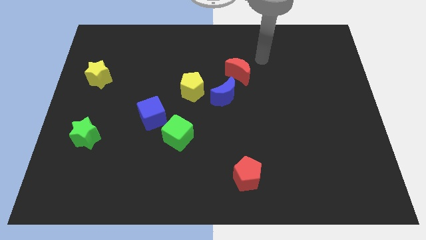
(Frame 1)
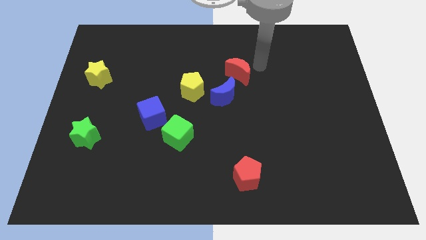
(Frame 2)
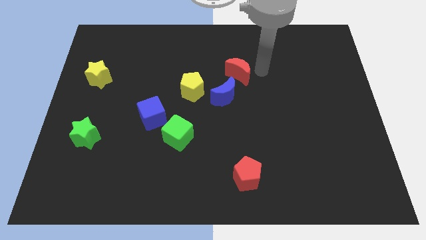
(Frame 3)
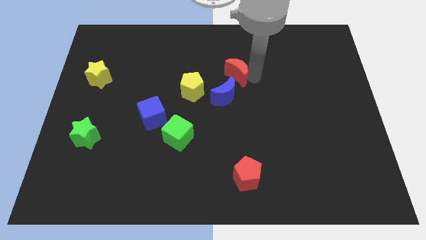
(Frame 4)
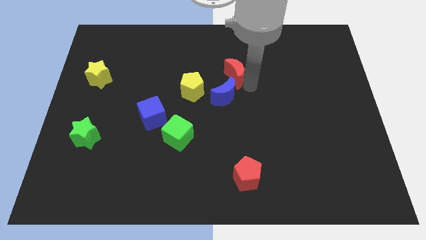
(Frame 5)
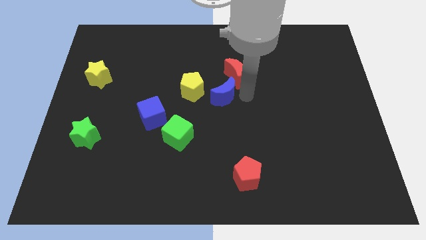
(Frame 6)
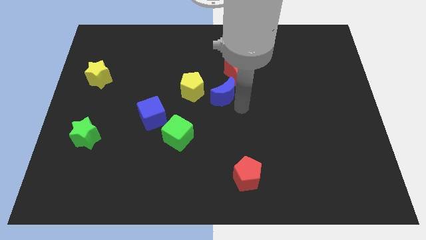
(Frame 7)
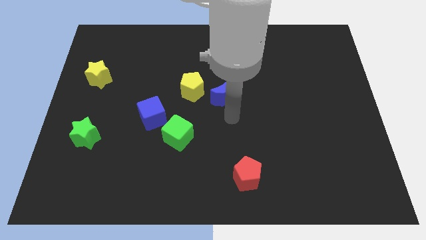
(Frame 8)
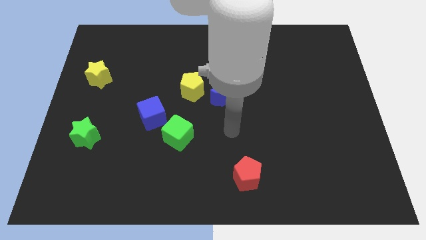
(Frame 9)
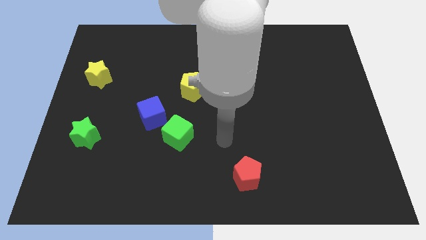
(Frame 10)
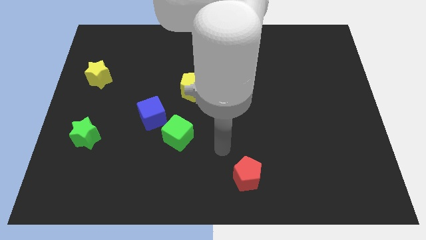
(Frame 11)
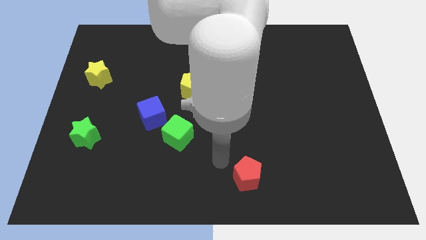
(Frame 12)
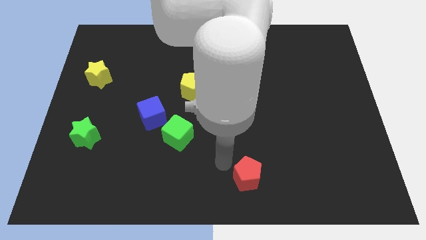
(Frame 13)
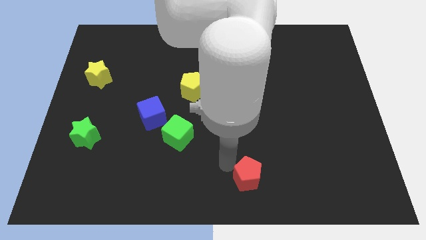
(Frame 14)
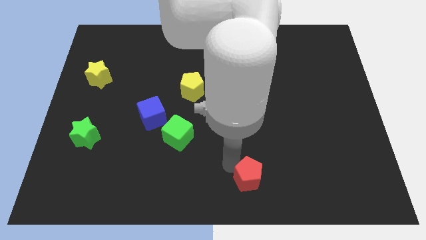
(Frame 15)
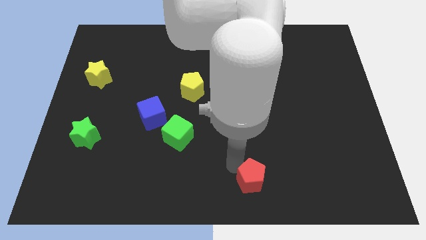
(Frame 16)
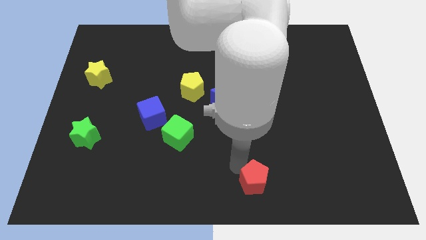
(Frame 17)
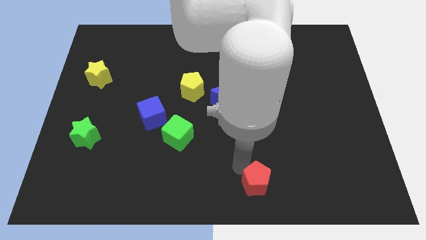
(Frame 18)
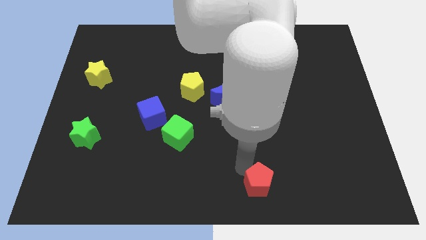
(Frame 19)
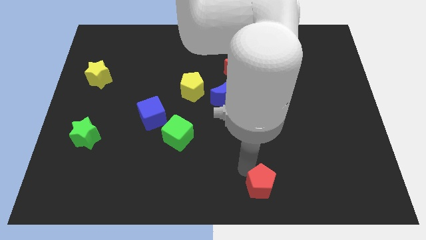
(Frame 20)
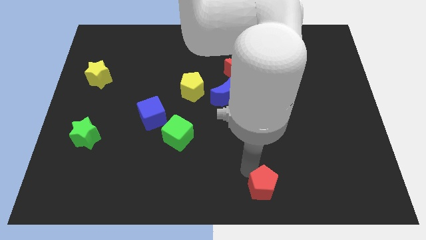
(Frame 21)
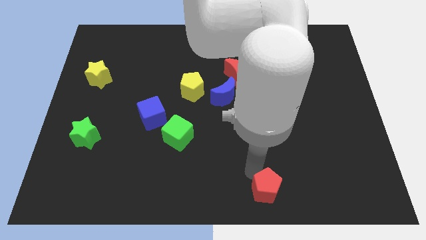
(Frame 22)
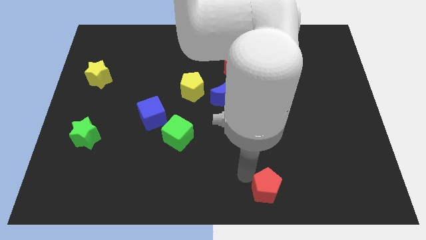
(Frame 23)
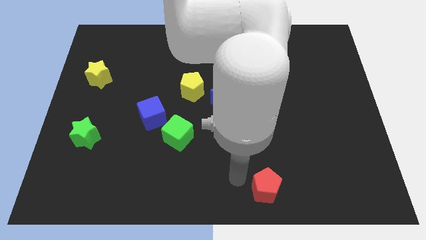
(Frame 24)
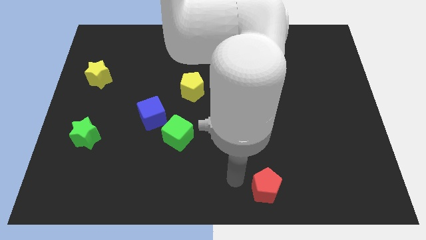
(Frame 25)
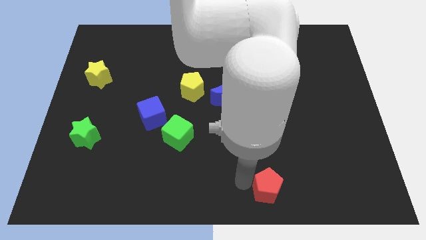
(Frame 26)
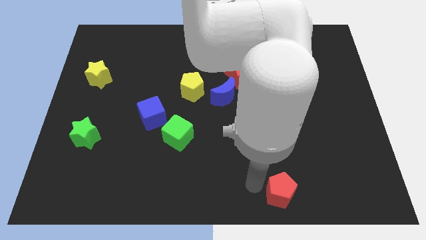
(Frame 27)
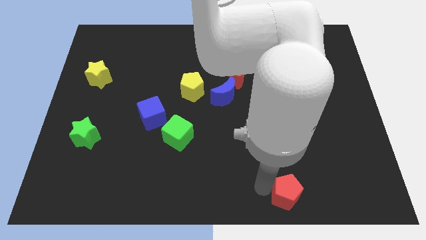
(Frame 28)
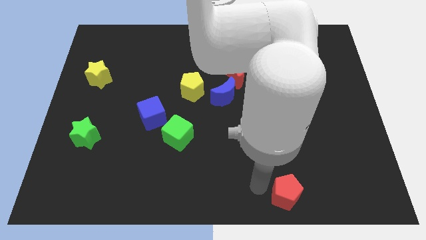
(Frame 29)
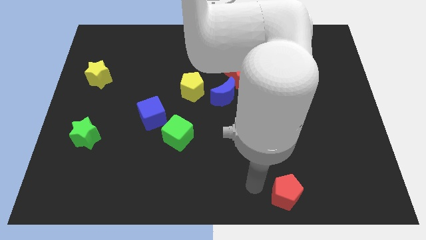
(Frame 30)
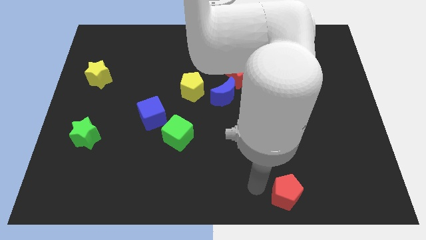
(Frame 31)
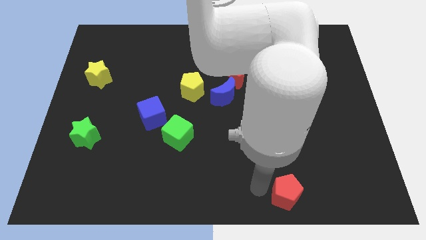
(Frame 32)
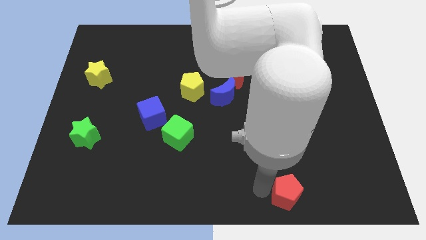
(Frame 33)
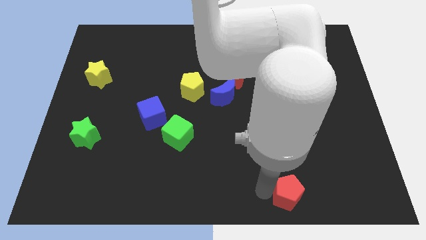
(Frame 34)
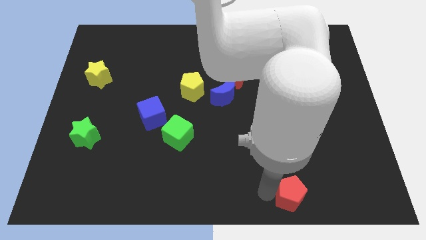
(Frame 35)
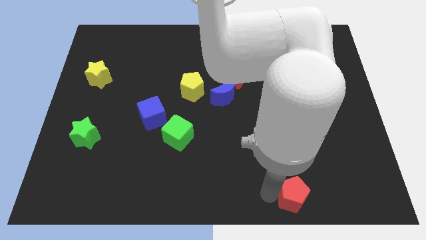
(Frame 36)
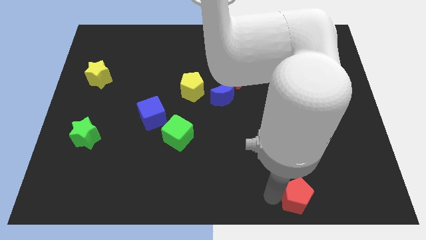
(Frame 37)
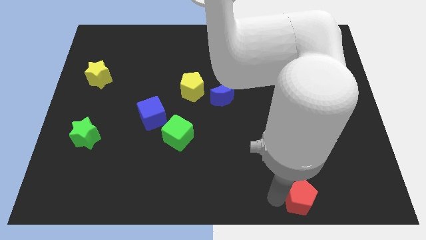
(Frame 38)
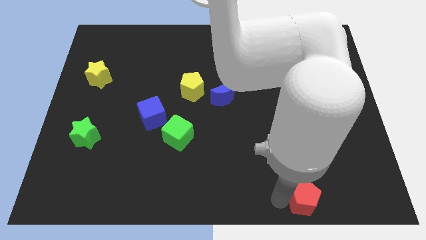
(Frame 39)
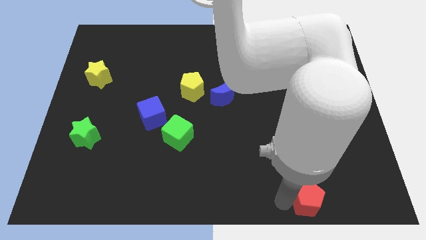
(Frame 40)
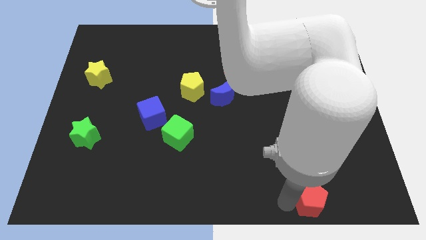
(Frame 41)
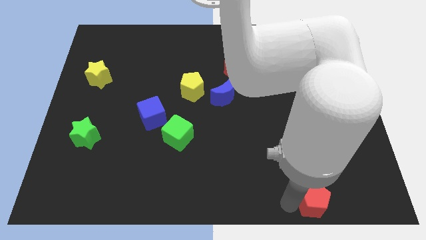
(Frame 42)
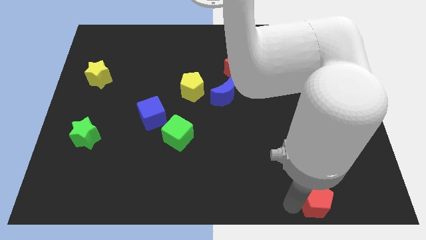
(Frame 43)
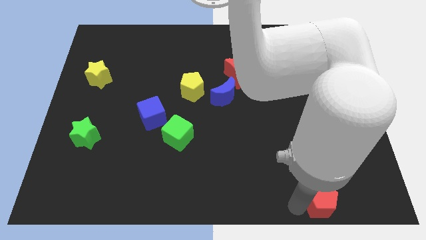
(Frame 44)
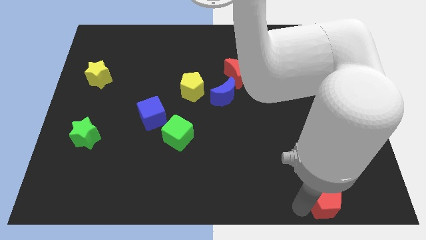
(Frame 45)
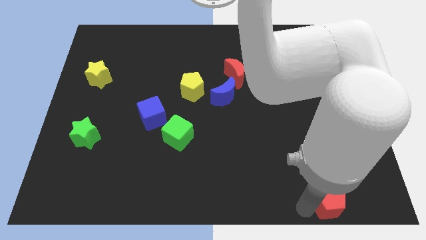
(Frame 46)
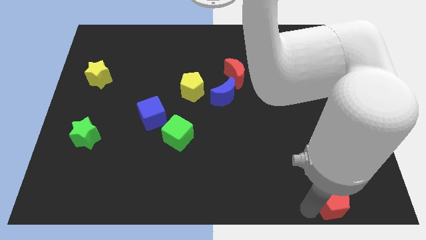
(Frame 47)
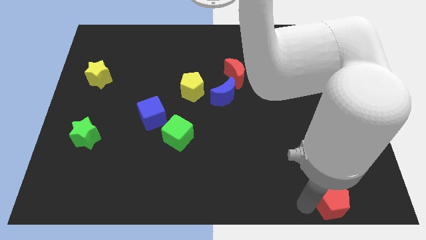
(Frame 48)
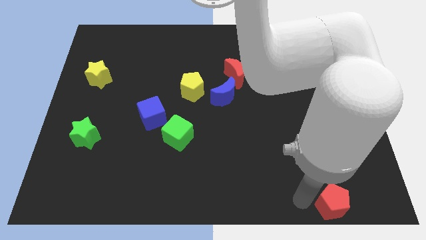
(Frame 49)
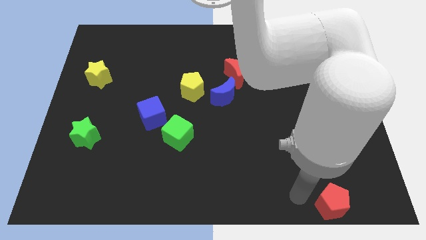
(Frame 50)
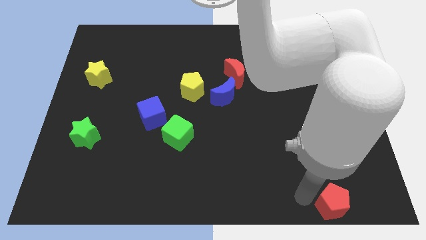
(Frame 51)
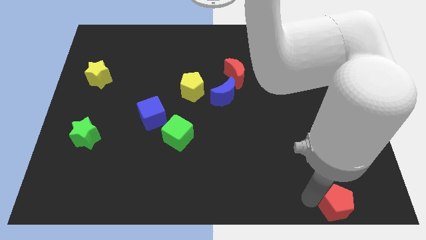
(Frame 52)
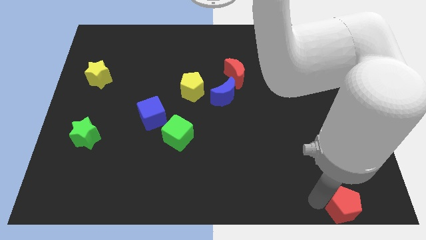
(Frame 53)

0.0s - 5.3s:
slide the red pentagon to the bottom right of the board

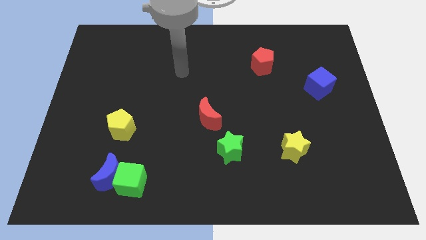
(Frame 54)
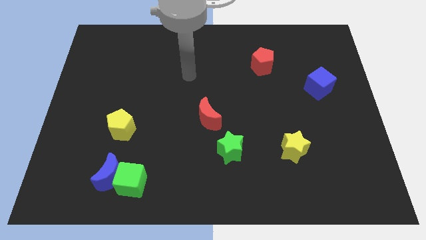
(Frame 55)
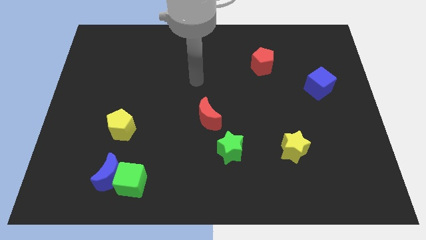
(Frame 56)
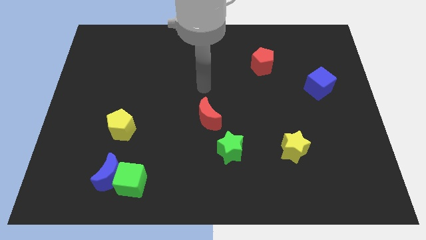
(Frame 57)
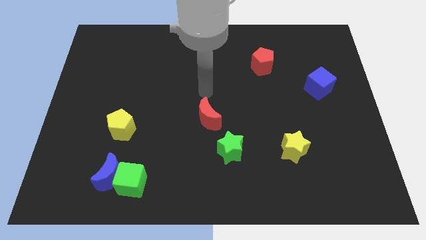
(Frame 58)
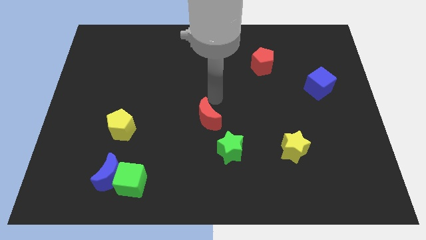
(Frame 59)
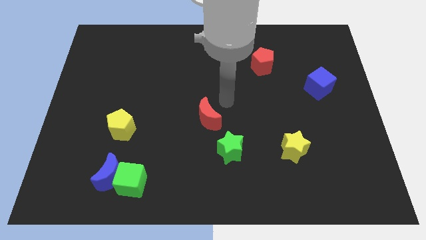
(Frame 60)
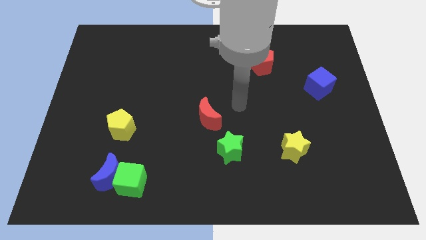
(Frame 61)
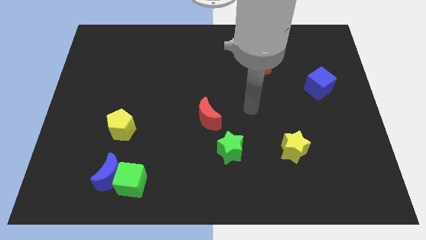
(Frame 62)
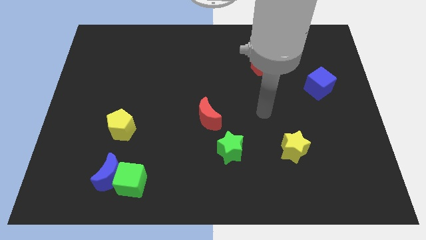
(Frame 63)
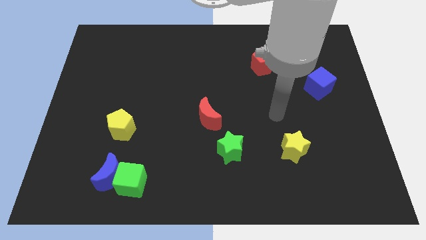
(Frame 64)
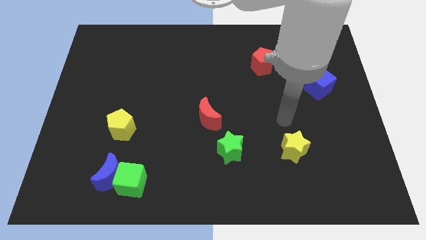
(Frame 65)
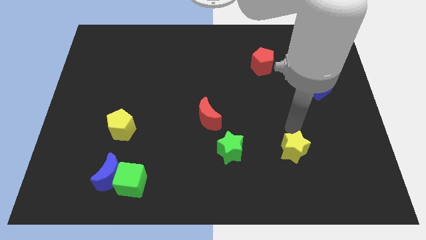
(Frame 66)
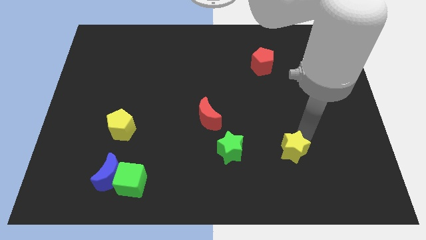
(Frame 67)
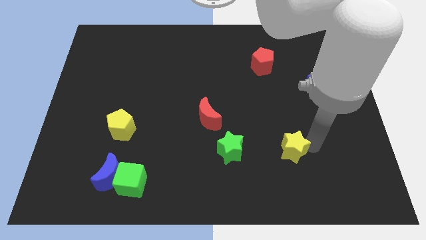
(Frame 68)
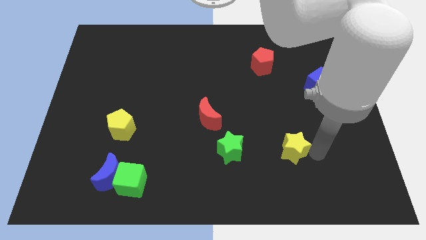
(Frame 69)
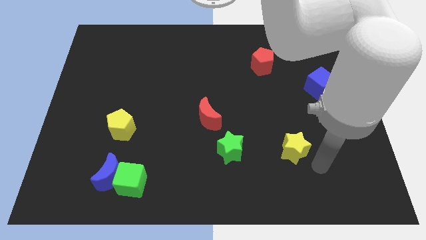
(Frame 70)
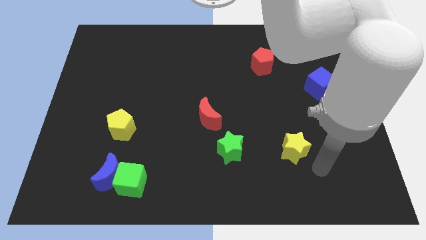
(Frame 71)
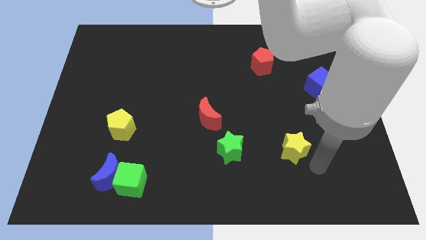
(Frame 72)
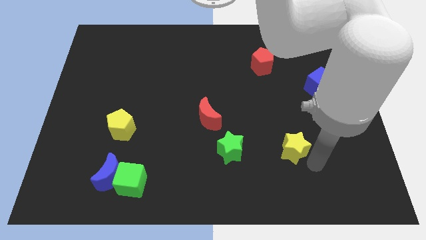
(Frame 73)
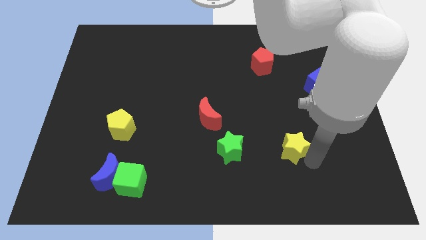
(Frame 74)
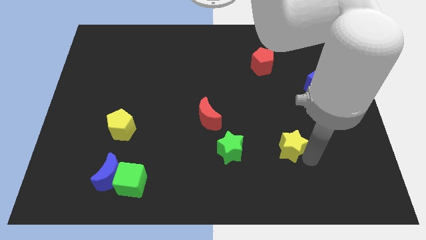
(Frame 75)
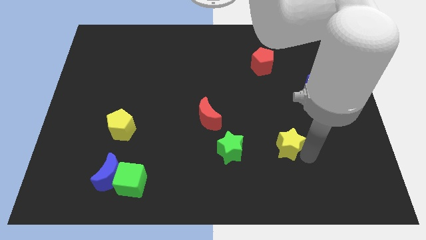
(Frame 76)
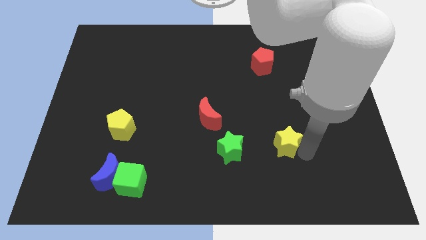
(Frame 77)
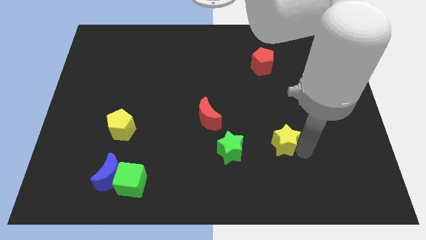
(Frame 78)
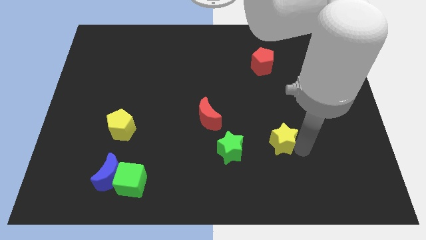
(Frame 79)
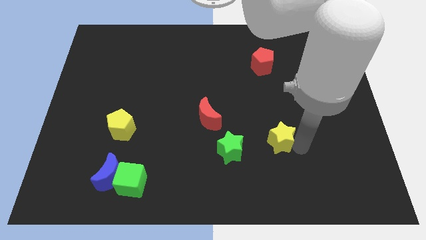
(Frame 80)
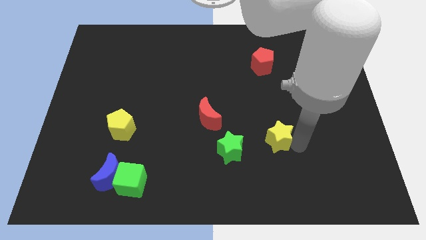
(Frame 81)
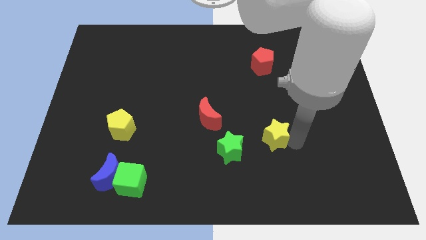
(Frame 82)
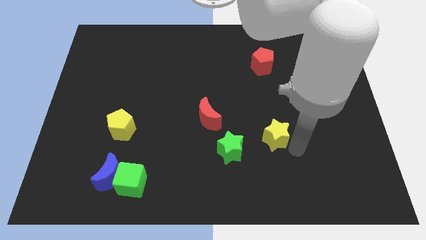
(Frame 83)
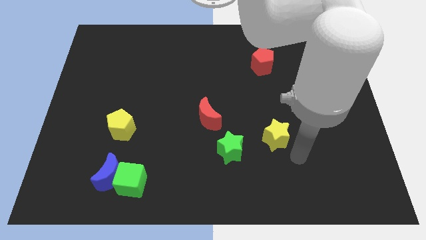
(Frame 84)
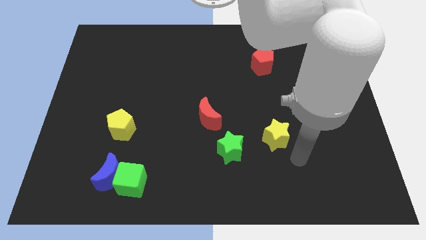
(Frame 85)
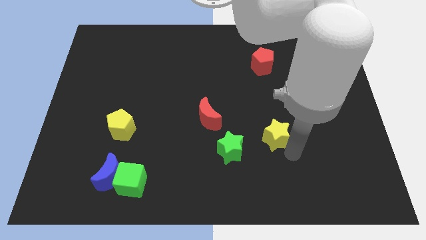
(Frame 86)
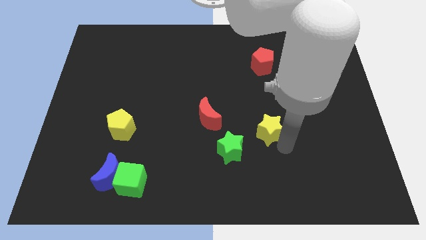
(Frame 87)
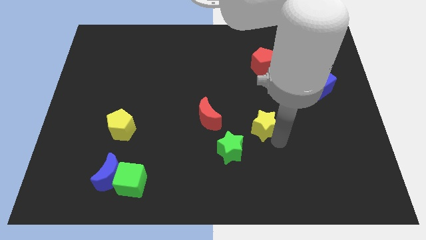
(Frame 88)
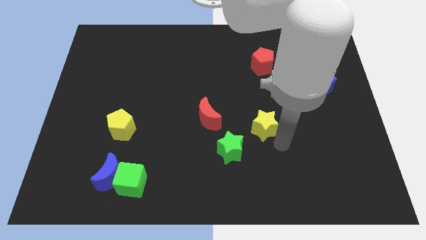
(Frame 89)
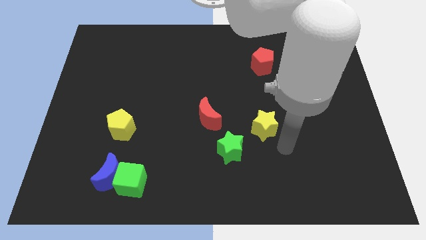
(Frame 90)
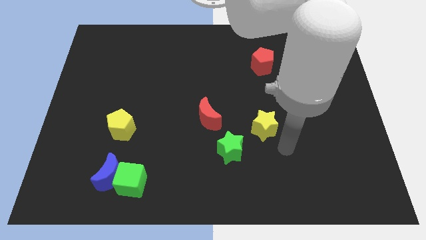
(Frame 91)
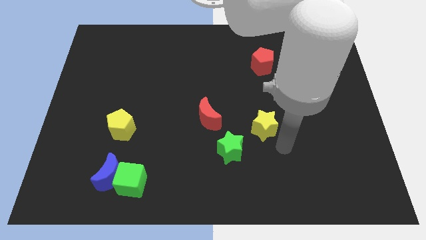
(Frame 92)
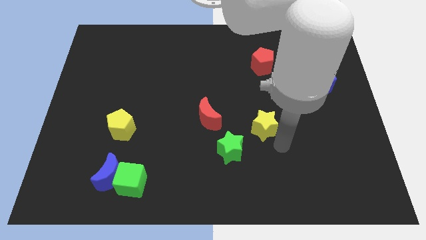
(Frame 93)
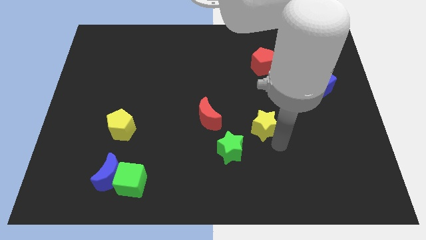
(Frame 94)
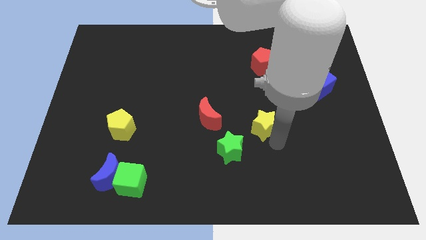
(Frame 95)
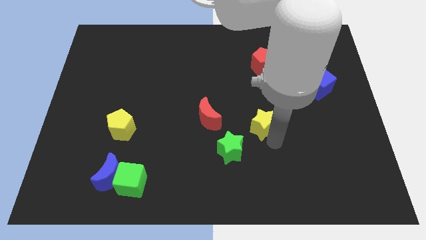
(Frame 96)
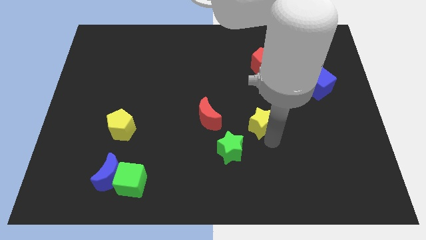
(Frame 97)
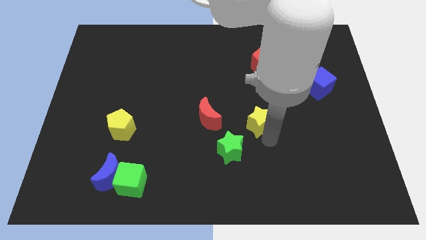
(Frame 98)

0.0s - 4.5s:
put the yellow star to the middle
